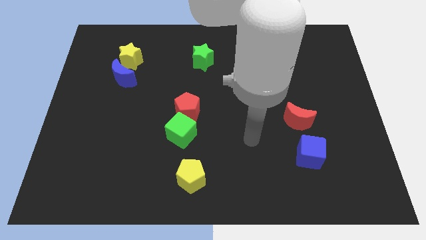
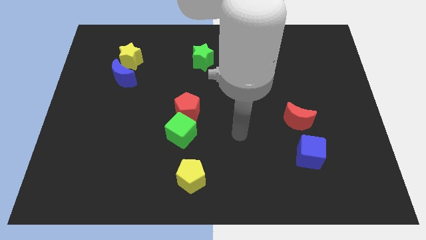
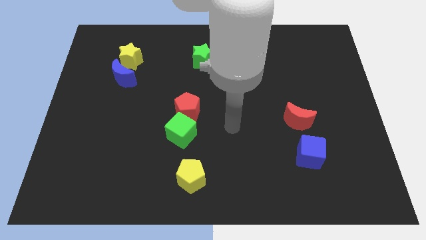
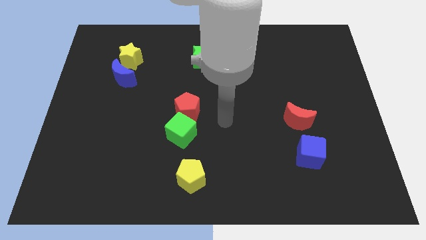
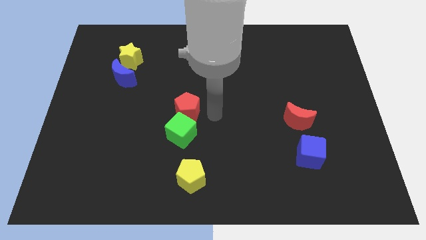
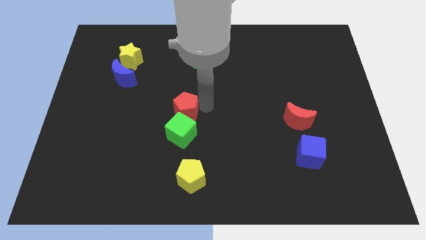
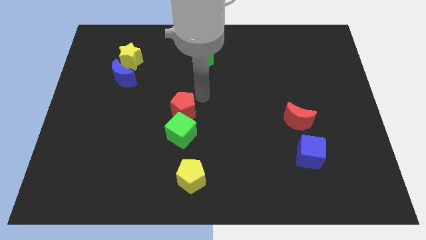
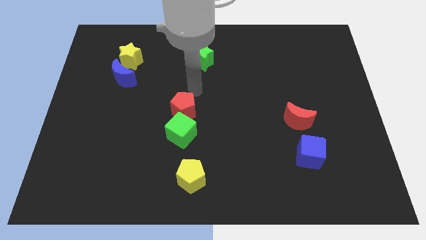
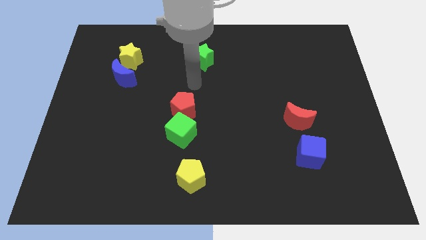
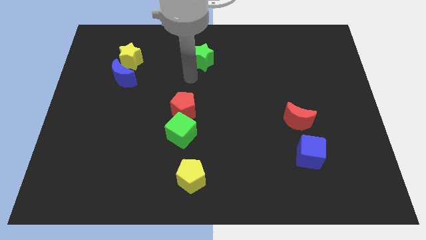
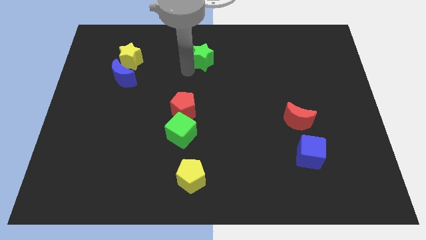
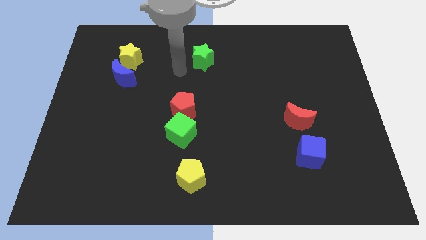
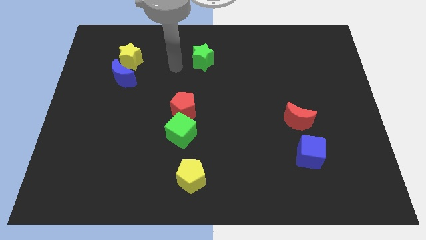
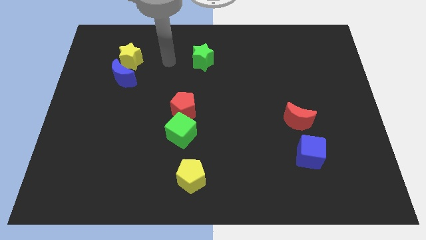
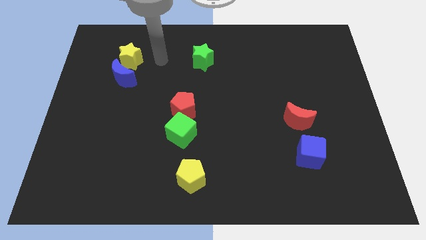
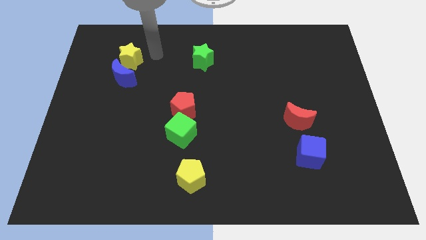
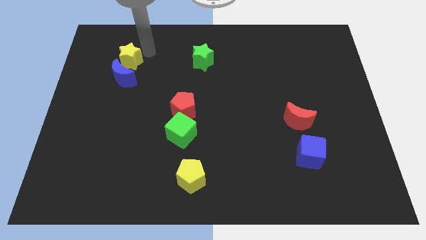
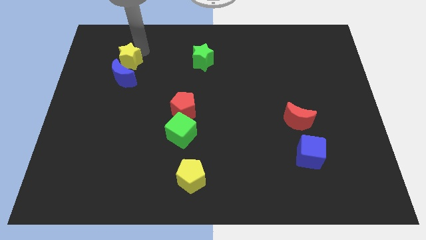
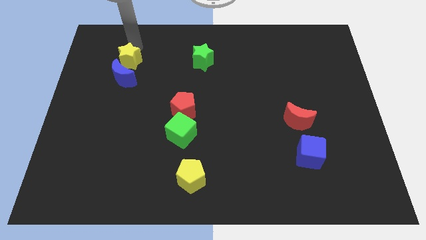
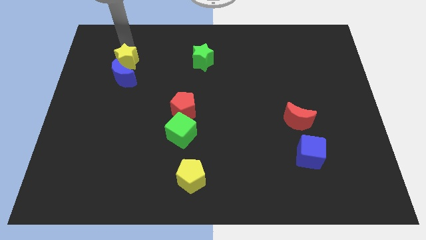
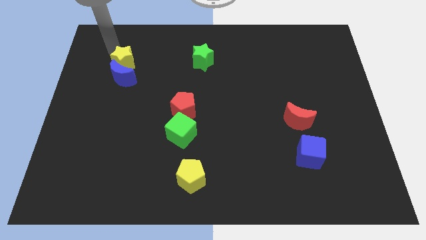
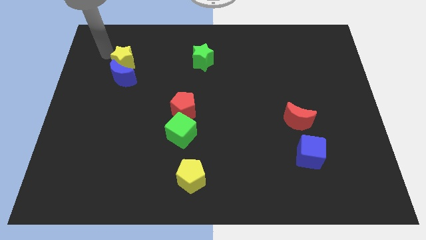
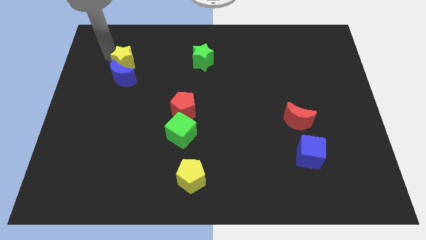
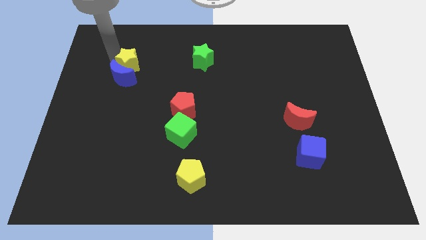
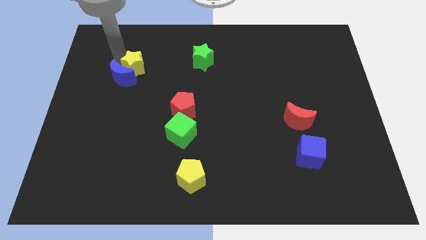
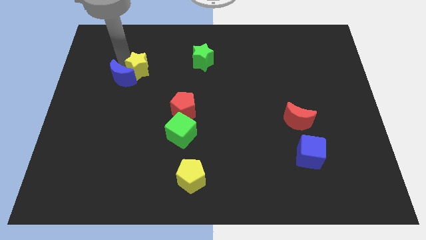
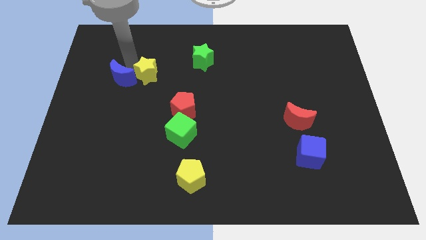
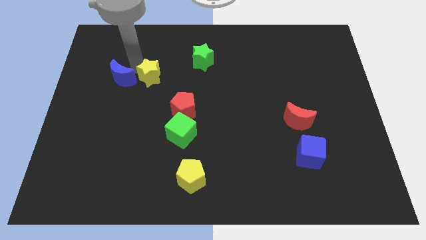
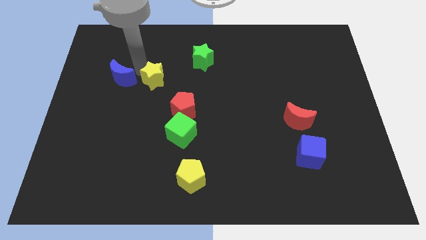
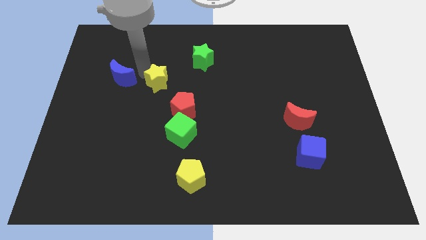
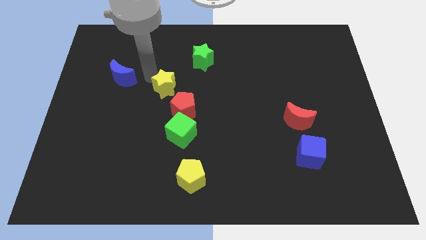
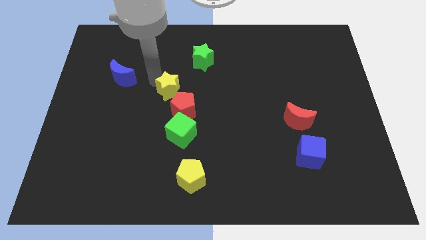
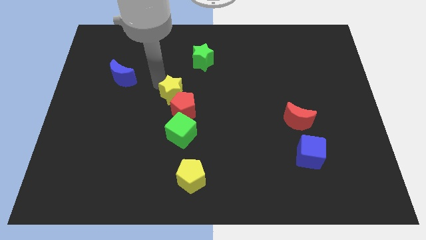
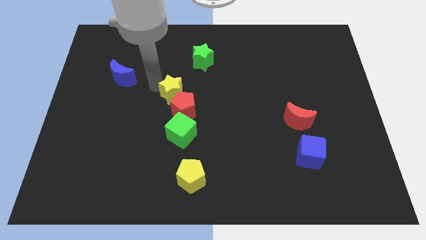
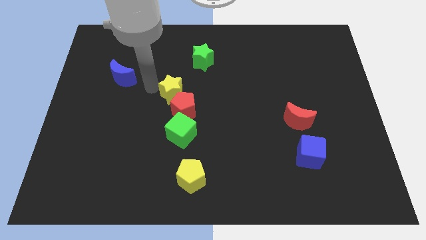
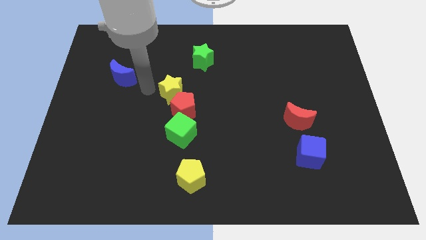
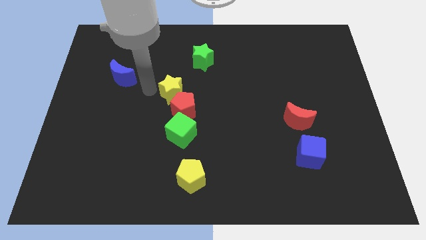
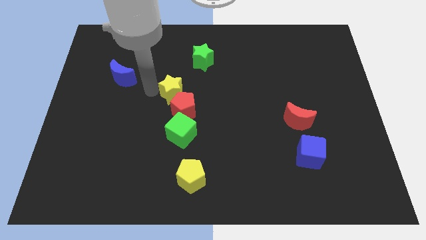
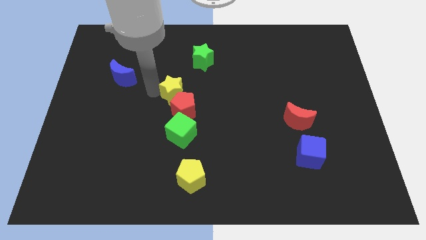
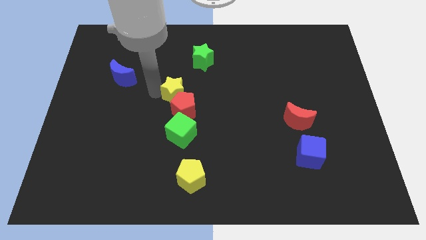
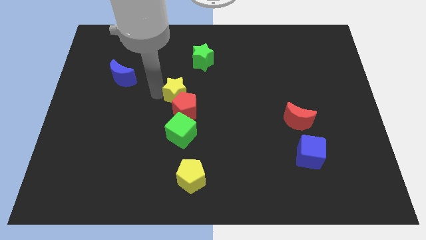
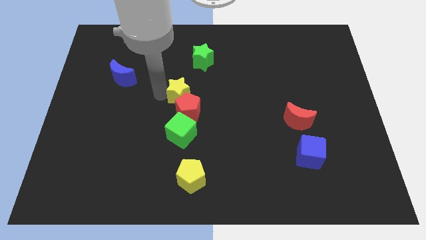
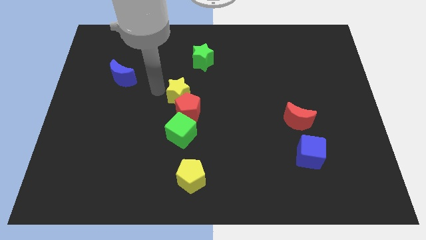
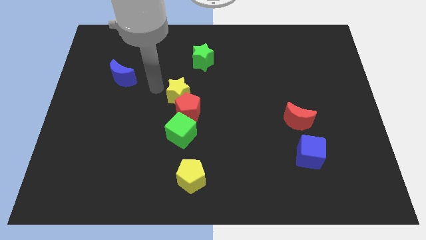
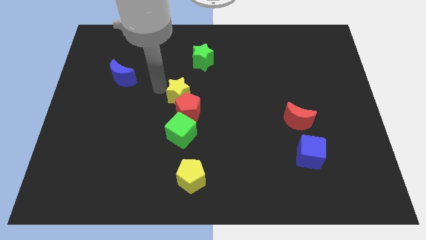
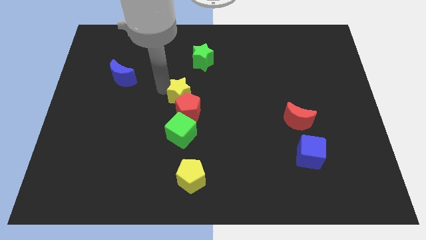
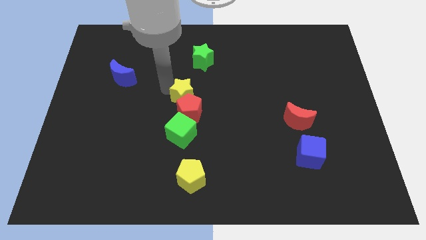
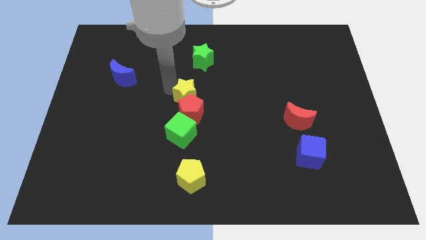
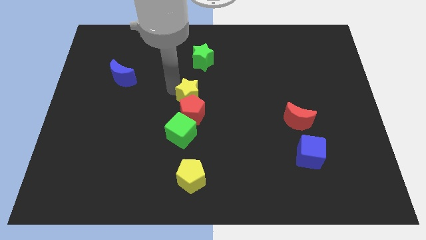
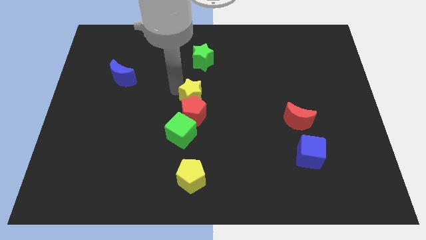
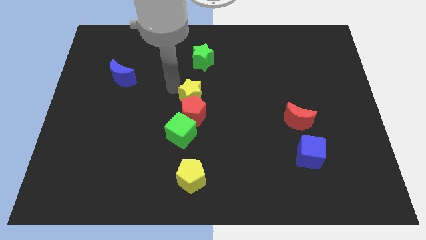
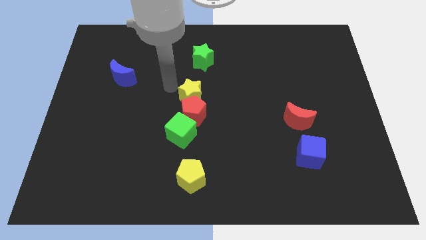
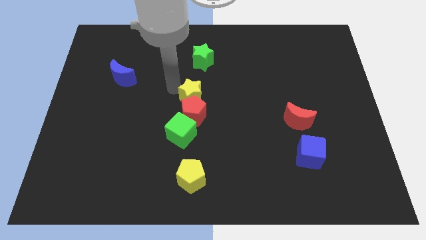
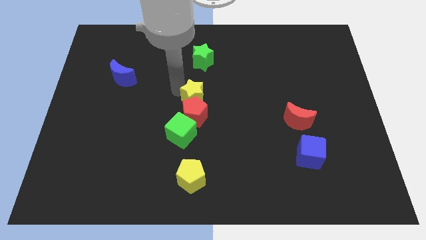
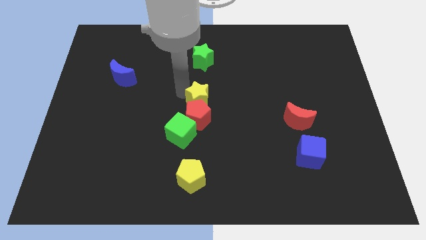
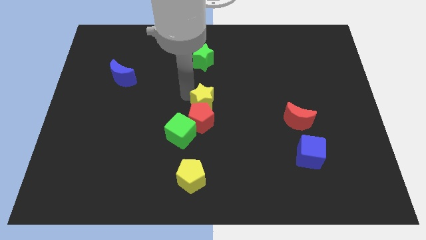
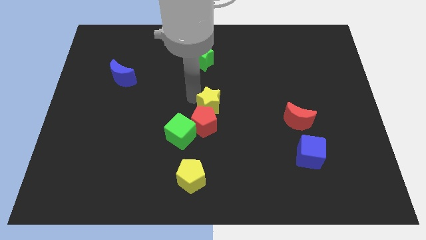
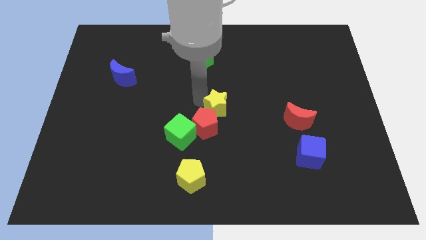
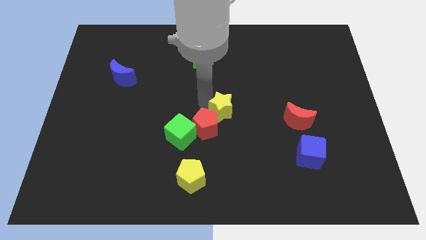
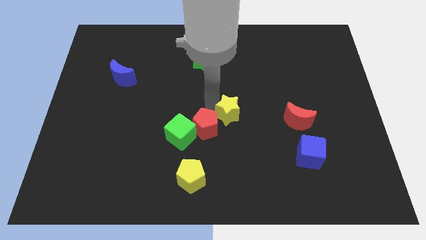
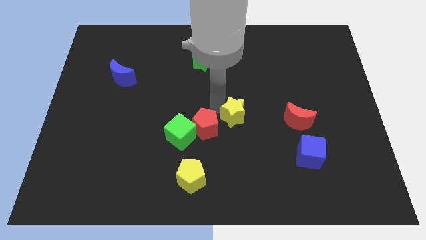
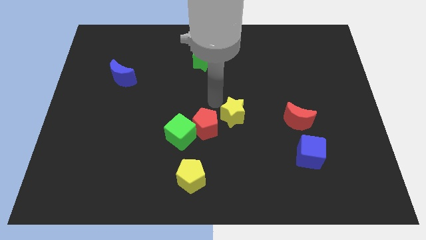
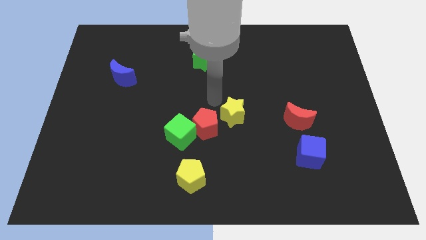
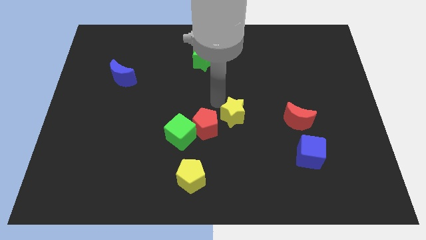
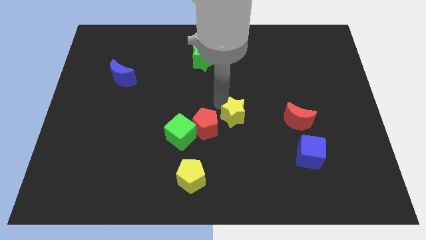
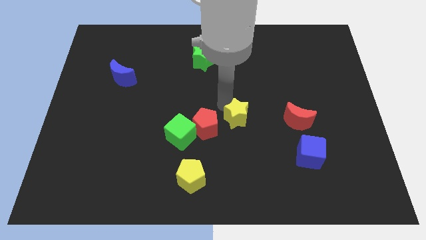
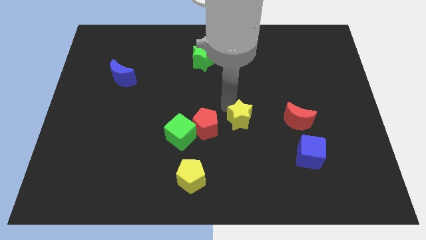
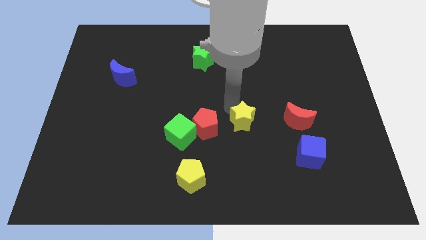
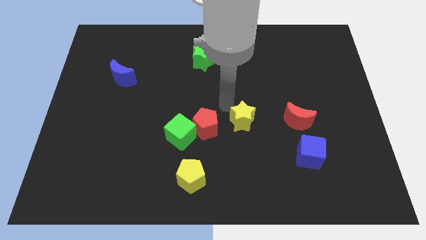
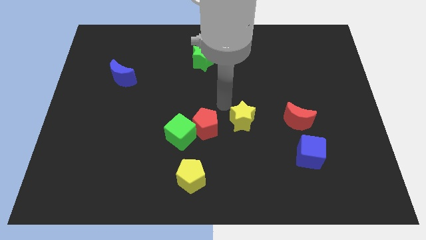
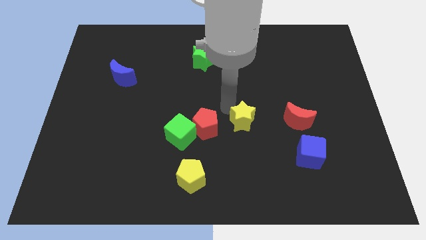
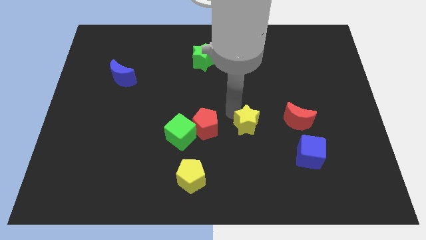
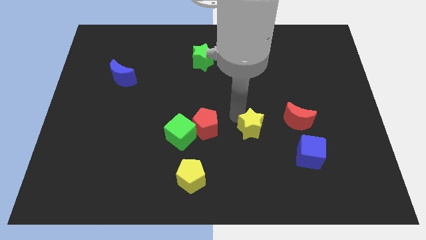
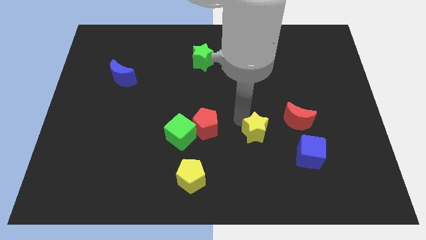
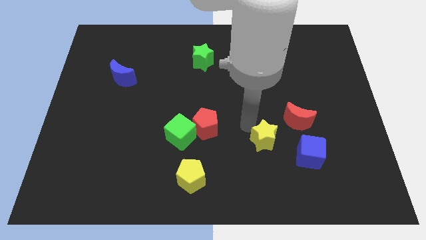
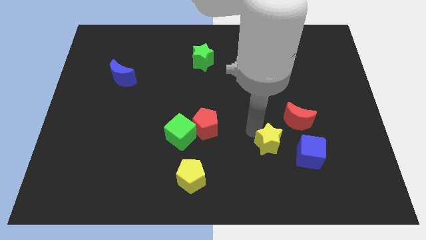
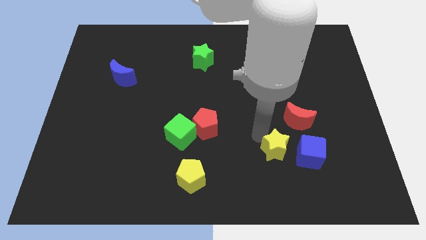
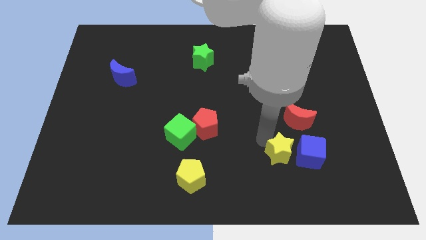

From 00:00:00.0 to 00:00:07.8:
push the yellow star to the bottom of the red moon
